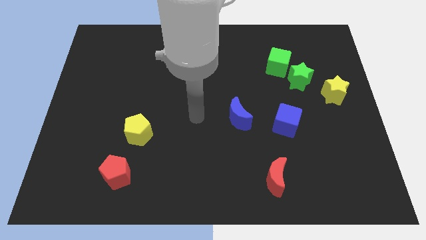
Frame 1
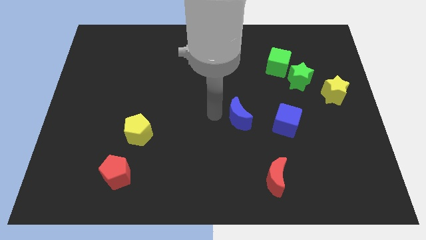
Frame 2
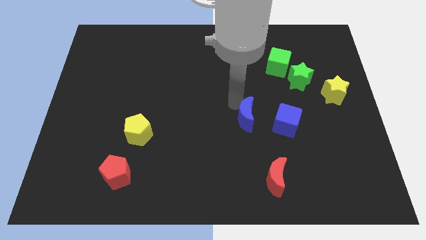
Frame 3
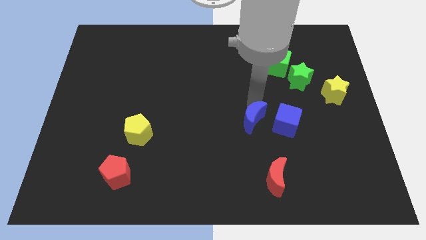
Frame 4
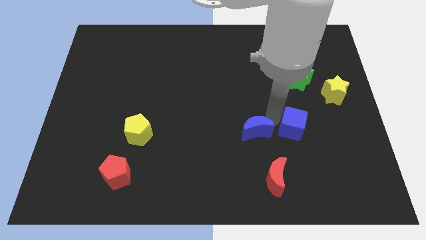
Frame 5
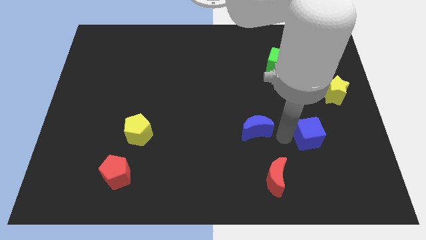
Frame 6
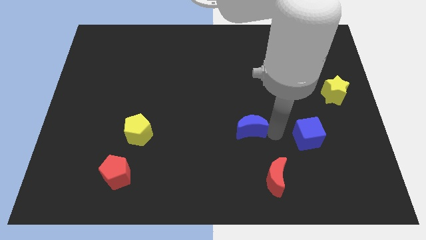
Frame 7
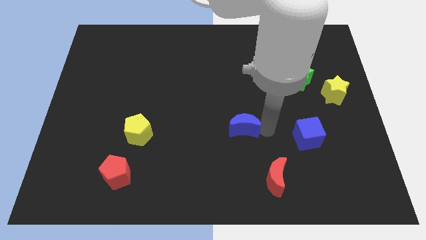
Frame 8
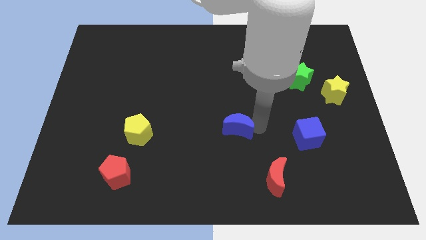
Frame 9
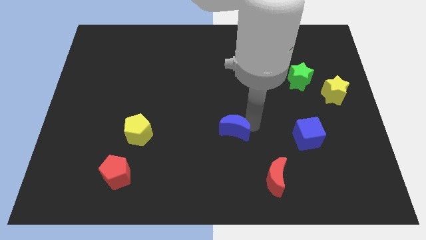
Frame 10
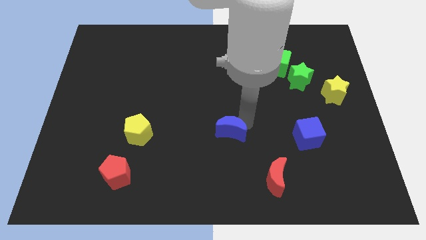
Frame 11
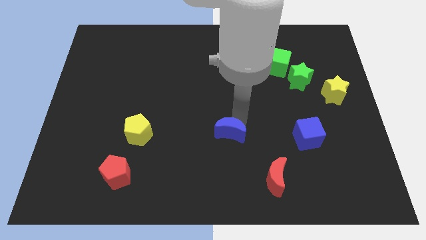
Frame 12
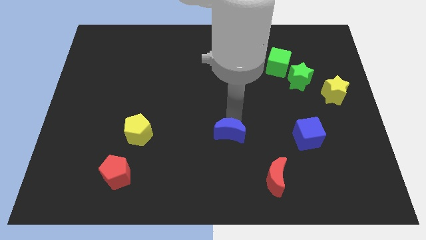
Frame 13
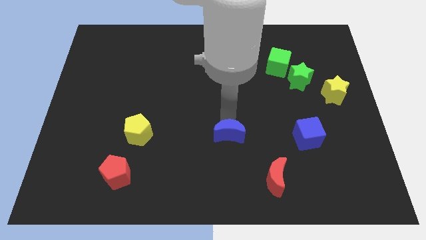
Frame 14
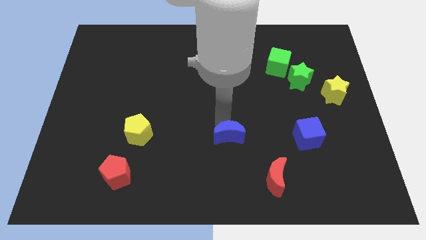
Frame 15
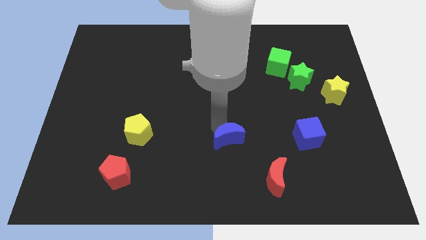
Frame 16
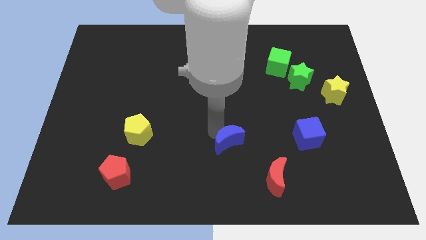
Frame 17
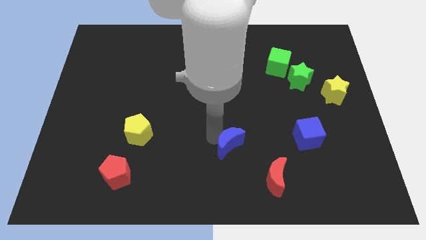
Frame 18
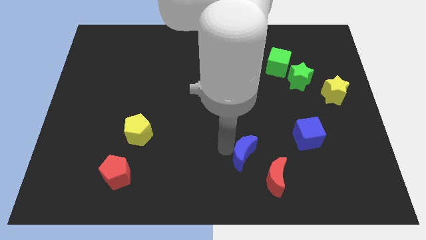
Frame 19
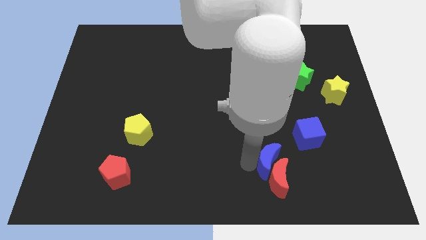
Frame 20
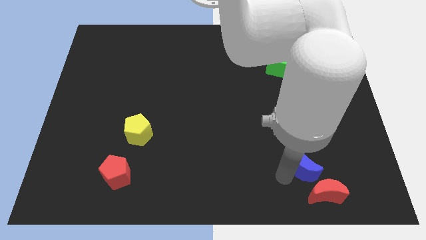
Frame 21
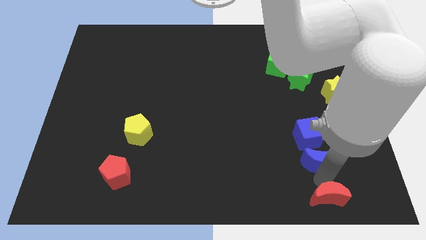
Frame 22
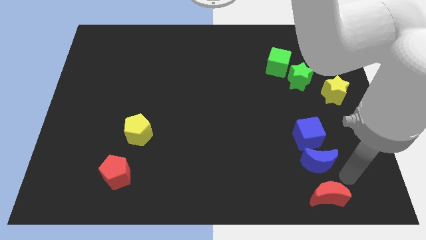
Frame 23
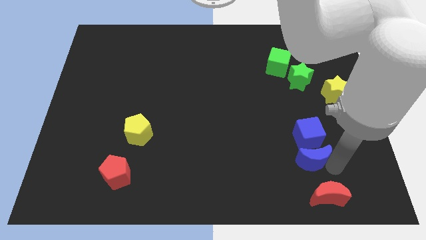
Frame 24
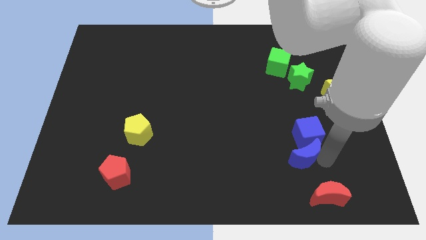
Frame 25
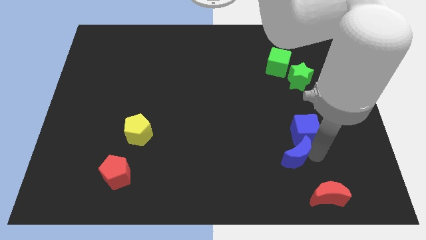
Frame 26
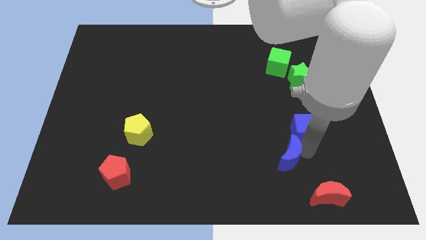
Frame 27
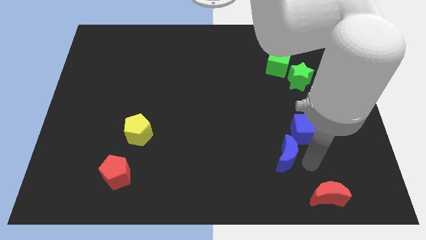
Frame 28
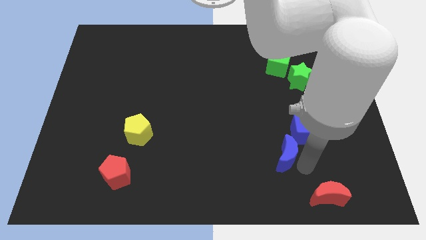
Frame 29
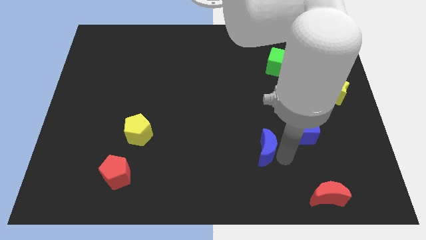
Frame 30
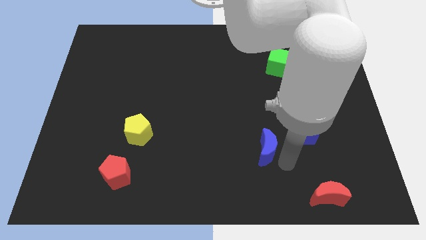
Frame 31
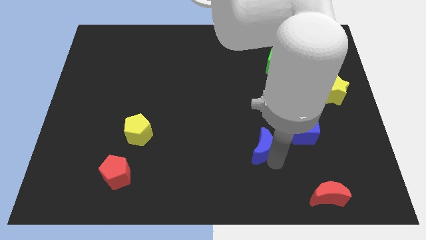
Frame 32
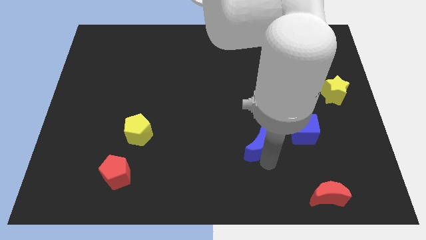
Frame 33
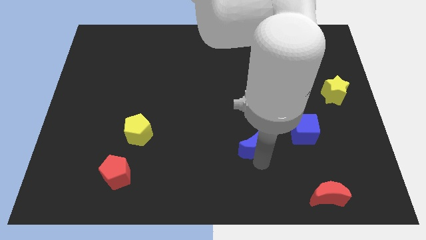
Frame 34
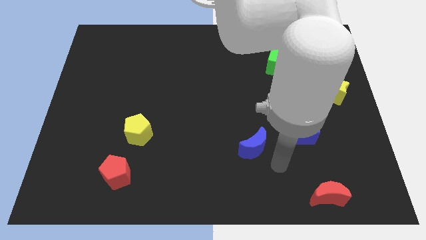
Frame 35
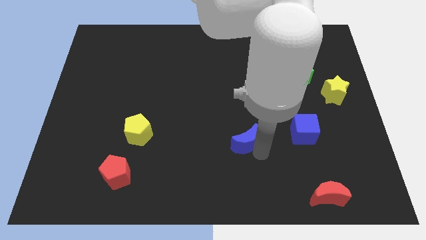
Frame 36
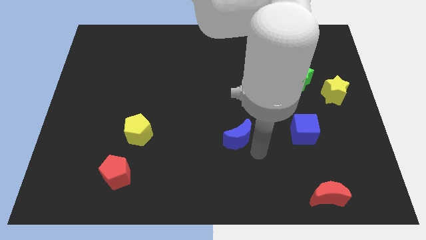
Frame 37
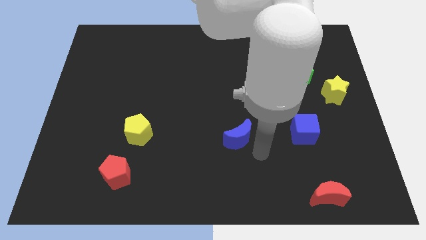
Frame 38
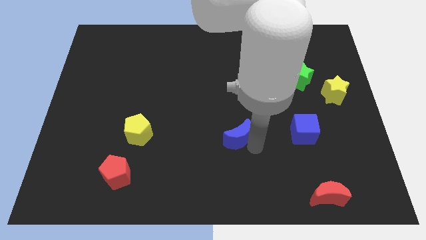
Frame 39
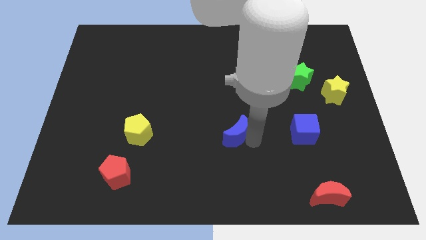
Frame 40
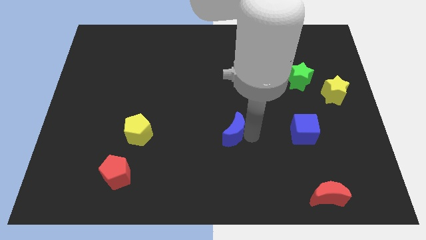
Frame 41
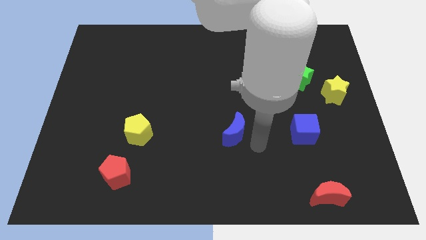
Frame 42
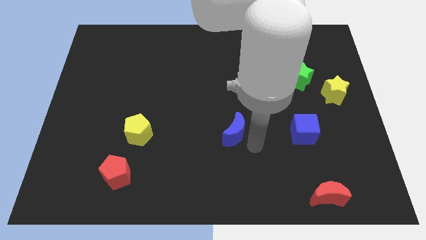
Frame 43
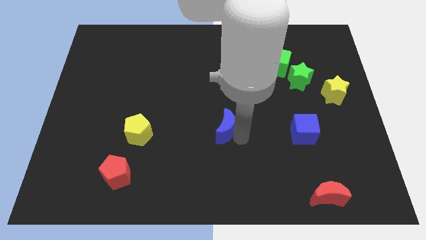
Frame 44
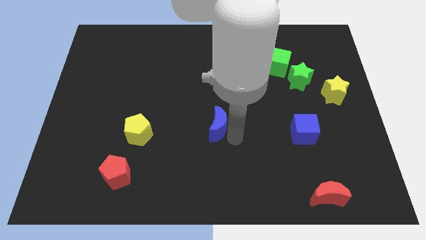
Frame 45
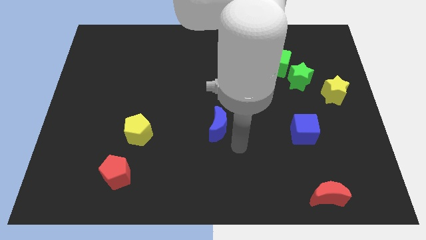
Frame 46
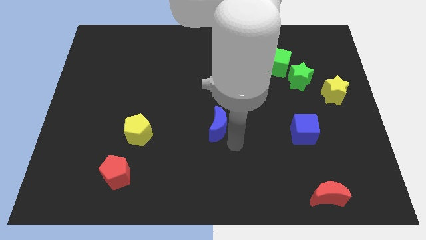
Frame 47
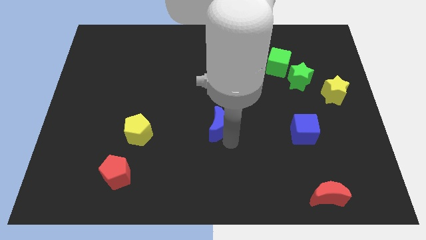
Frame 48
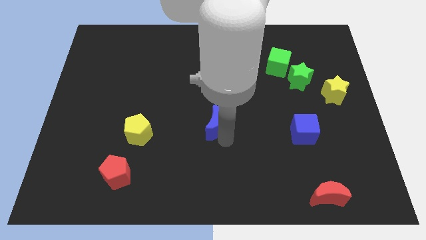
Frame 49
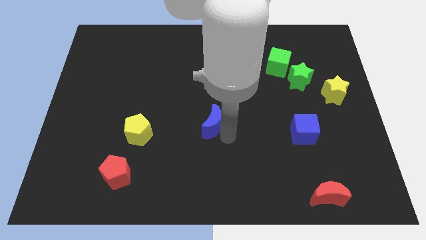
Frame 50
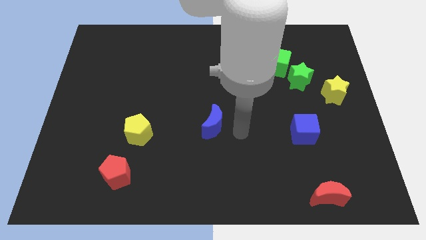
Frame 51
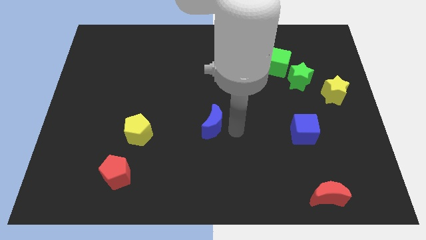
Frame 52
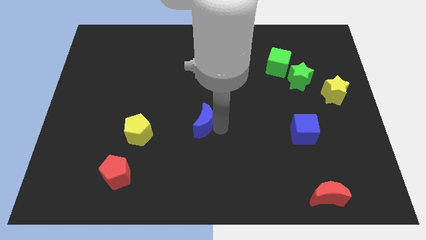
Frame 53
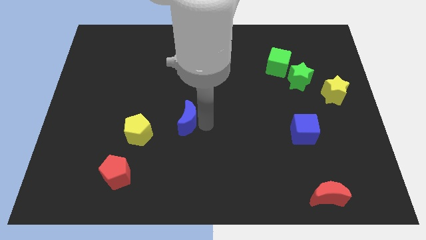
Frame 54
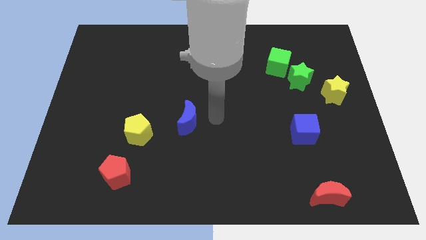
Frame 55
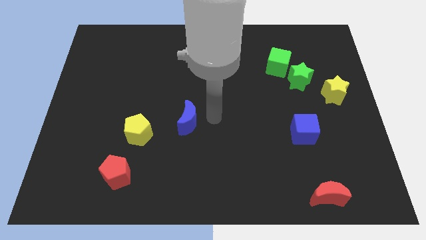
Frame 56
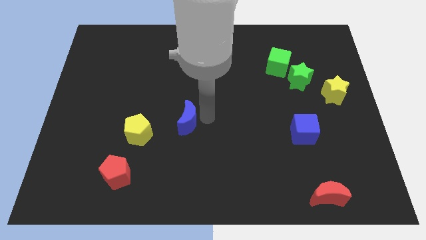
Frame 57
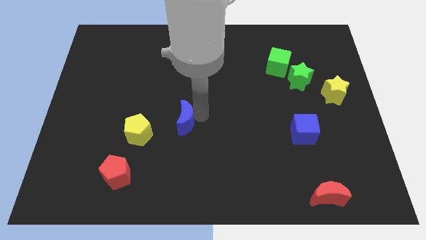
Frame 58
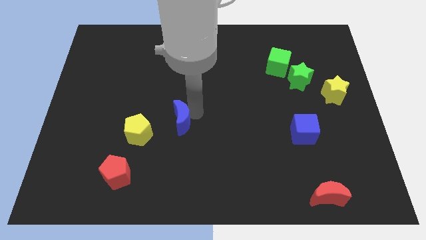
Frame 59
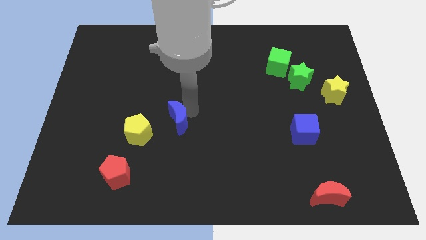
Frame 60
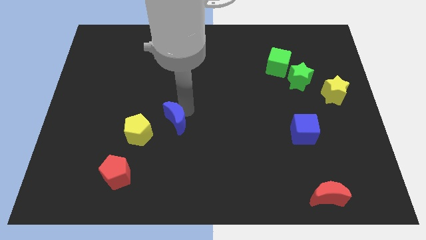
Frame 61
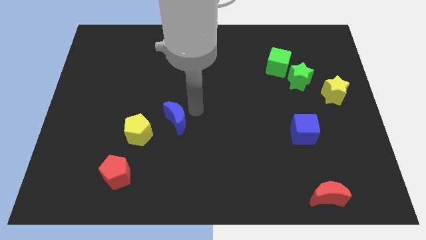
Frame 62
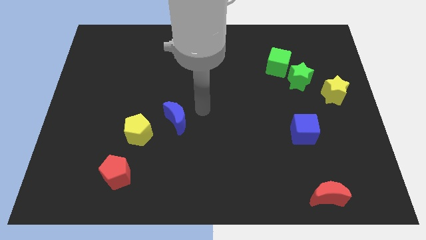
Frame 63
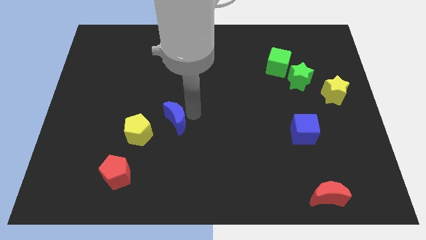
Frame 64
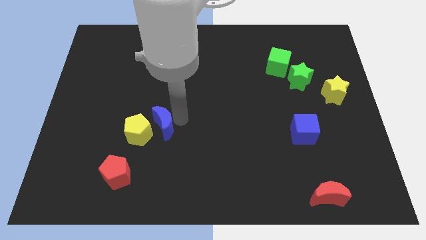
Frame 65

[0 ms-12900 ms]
move the blue moon to the yellow pentagon

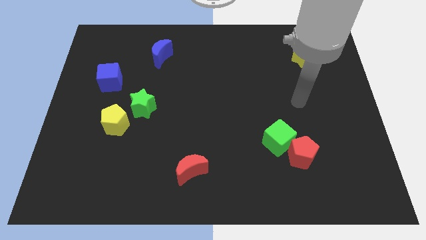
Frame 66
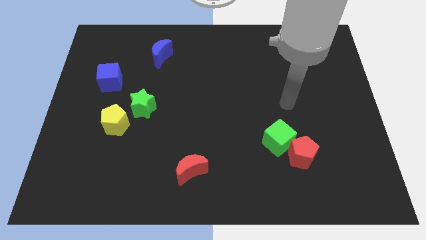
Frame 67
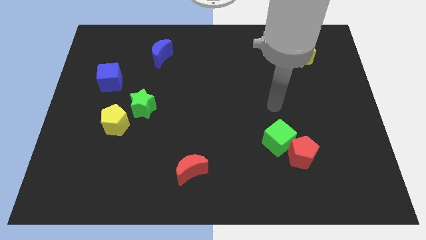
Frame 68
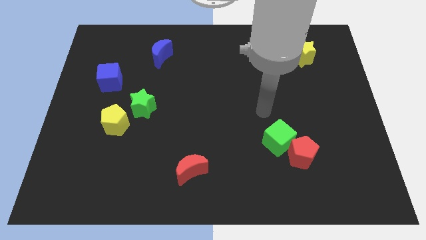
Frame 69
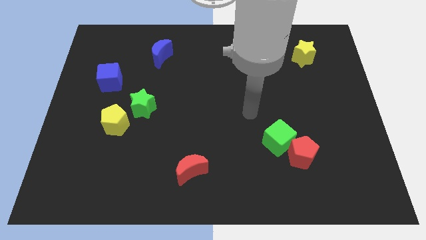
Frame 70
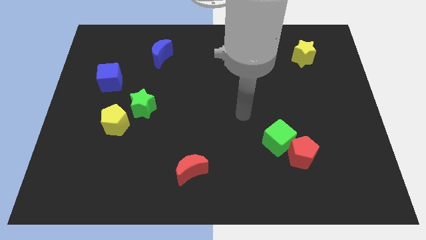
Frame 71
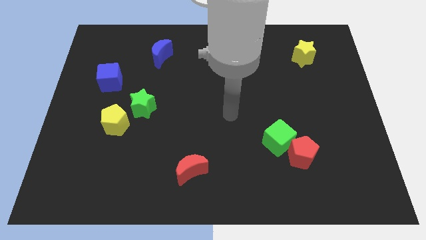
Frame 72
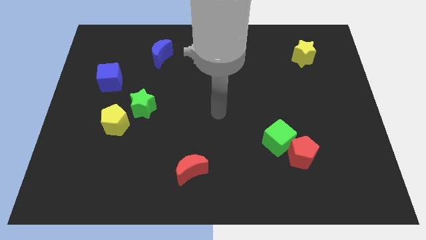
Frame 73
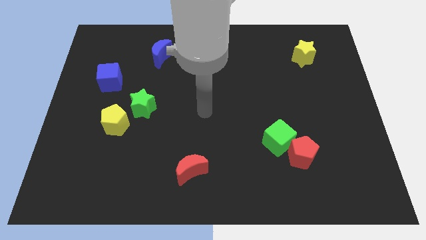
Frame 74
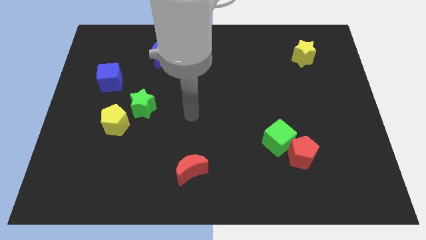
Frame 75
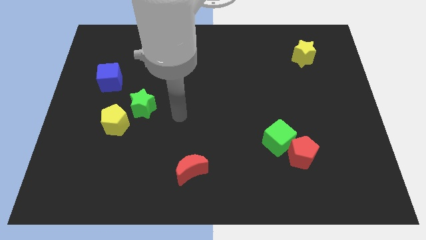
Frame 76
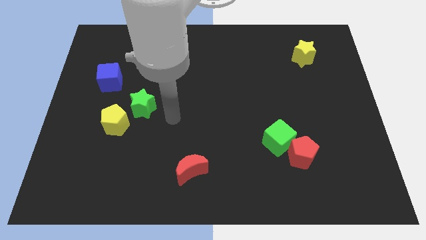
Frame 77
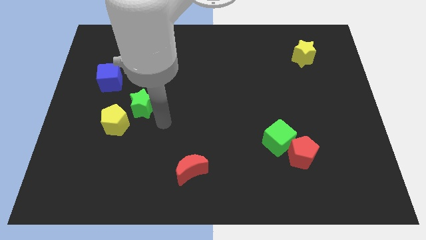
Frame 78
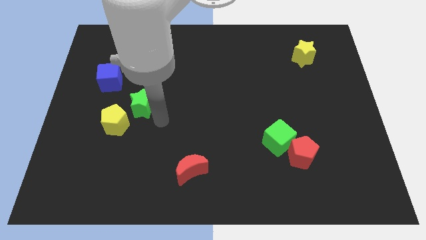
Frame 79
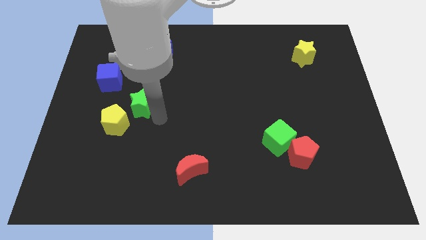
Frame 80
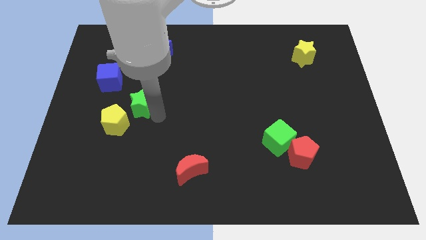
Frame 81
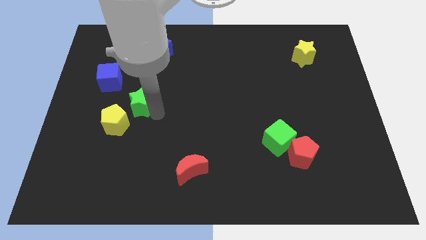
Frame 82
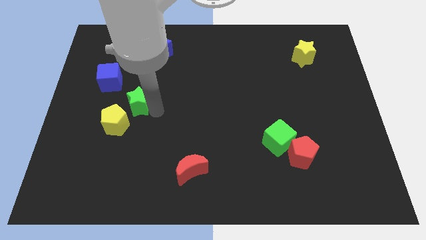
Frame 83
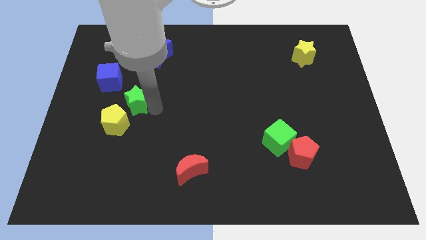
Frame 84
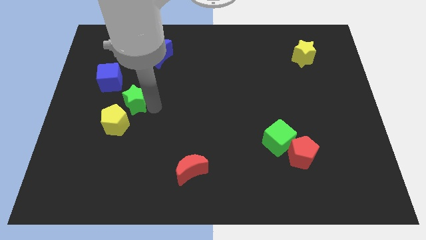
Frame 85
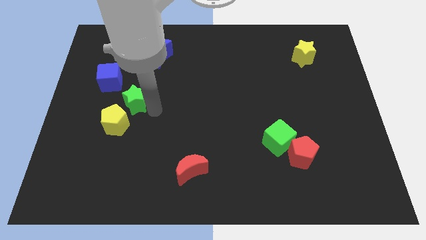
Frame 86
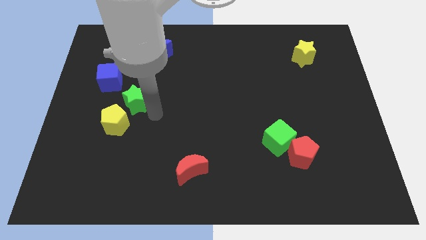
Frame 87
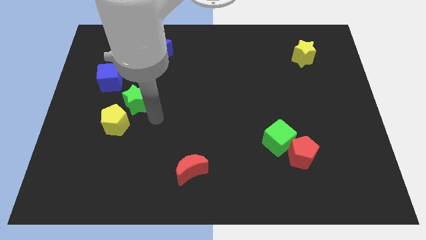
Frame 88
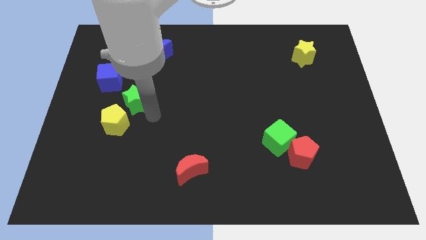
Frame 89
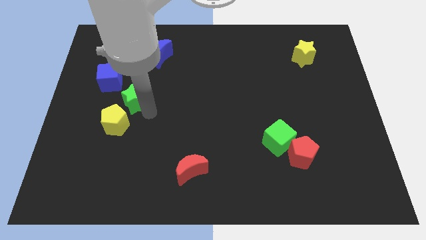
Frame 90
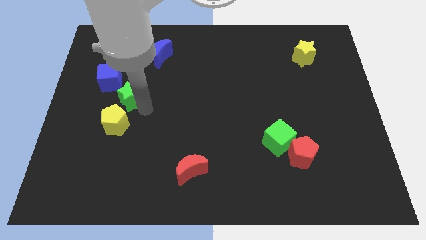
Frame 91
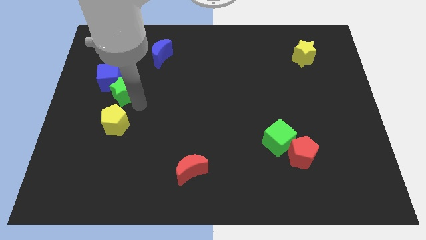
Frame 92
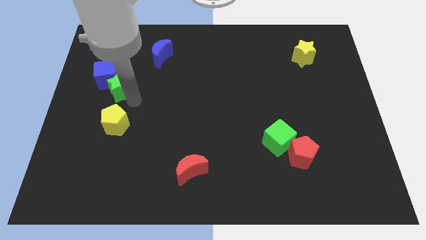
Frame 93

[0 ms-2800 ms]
slide the green star next to the blue cube
